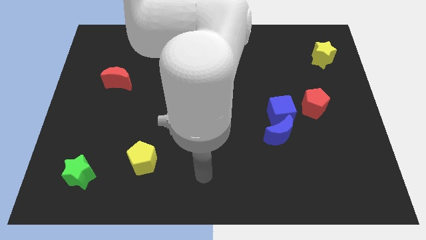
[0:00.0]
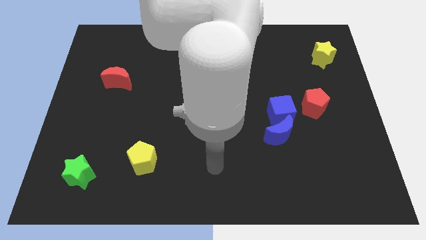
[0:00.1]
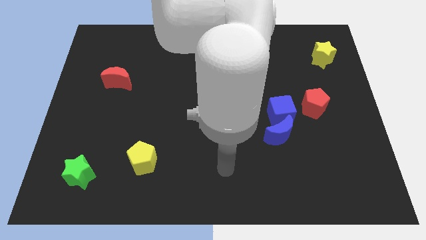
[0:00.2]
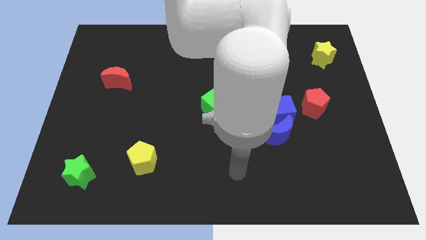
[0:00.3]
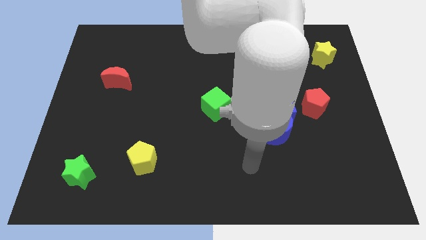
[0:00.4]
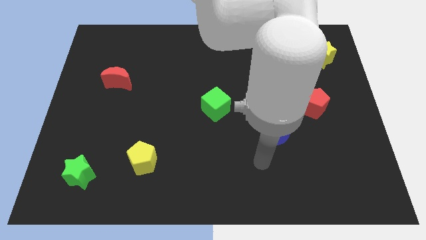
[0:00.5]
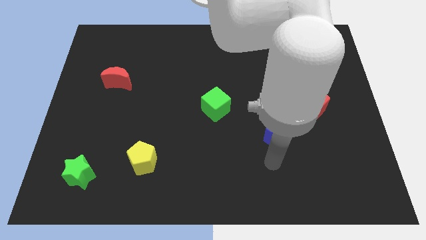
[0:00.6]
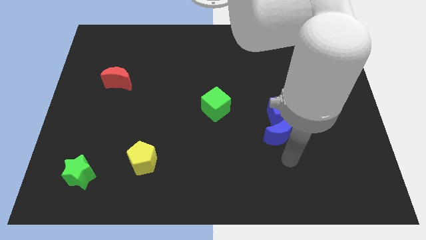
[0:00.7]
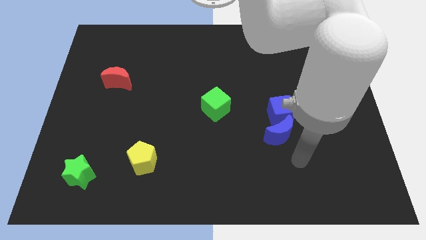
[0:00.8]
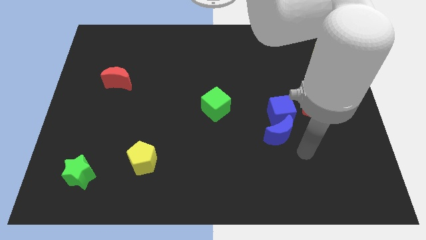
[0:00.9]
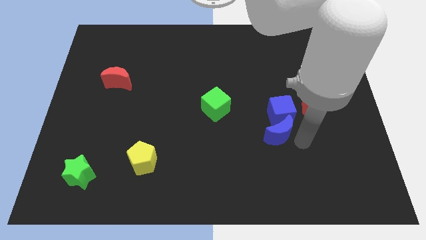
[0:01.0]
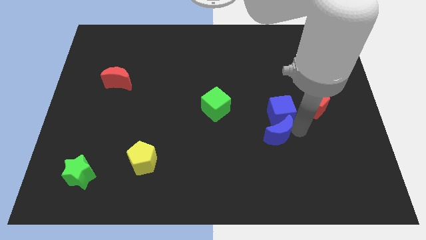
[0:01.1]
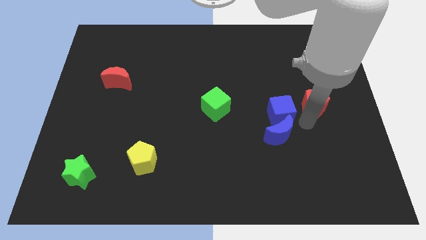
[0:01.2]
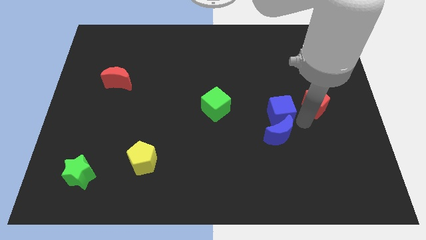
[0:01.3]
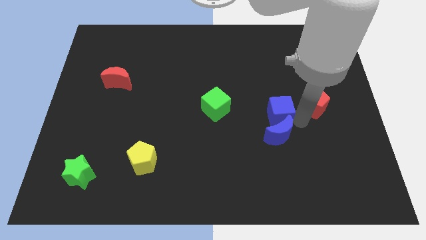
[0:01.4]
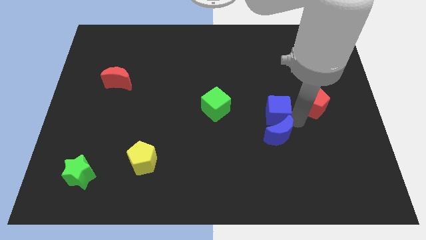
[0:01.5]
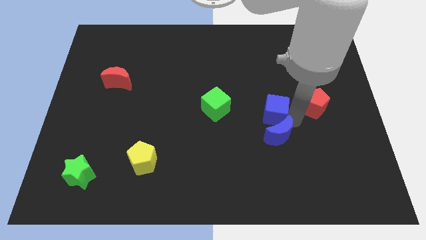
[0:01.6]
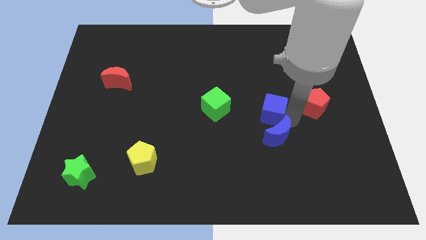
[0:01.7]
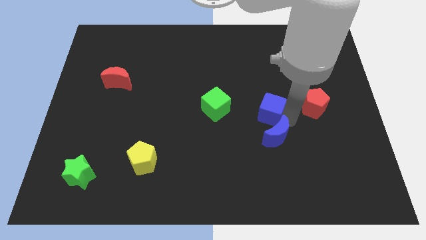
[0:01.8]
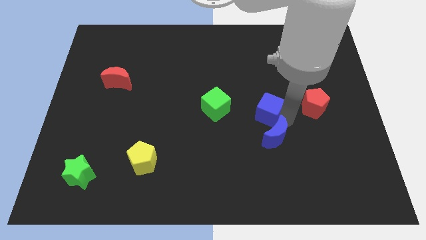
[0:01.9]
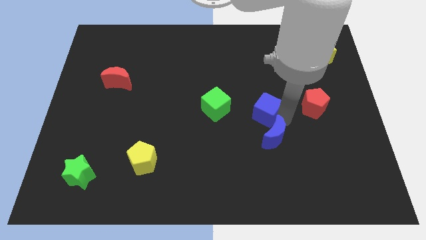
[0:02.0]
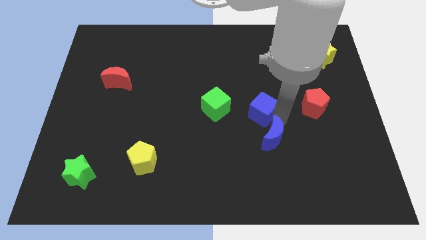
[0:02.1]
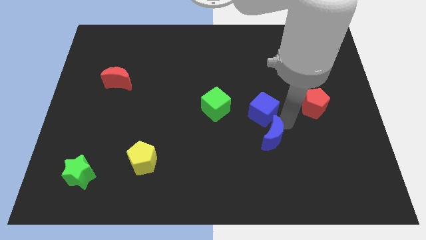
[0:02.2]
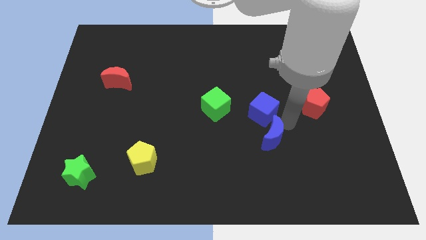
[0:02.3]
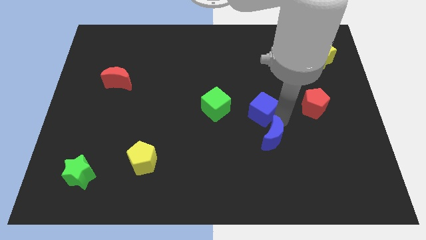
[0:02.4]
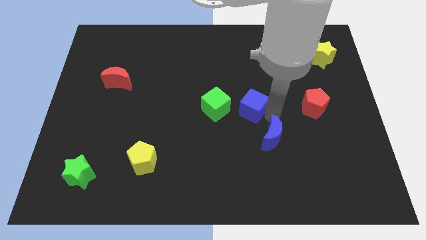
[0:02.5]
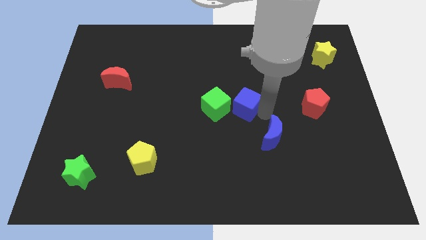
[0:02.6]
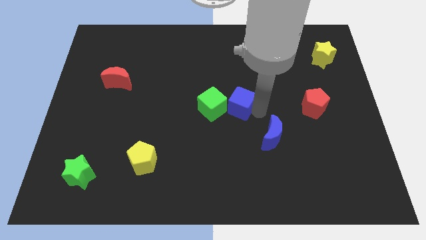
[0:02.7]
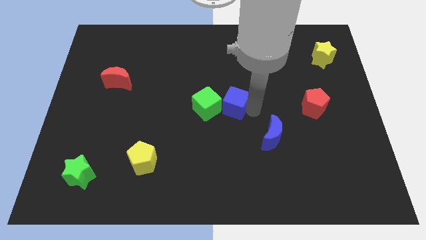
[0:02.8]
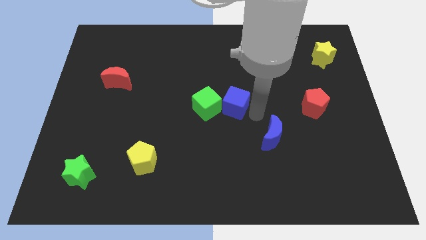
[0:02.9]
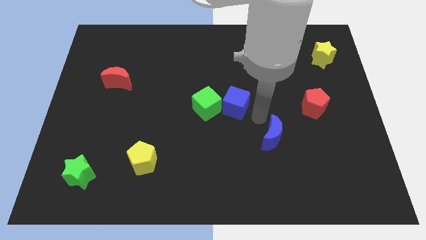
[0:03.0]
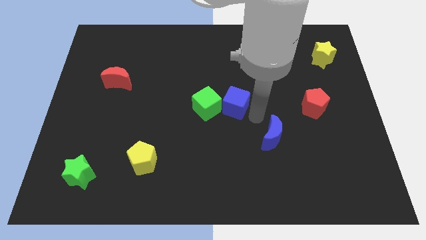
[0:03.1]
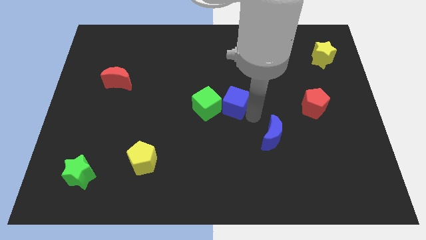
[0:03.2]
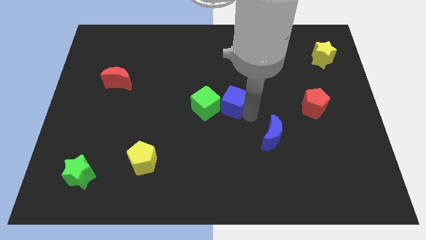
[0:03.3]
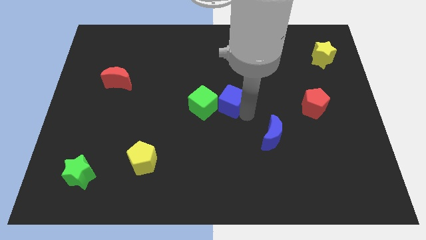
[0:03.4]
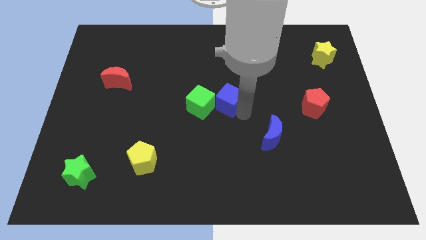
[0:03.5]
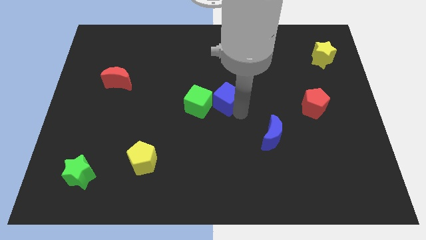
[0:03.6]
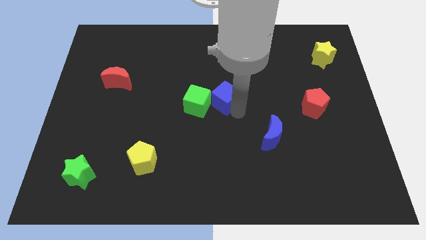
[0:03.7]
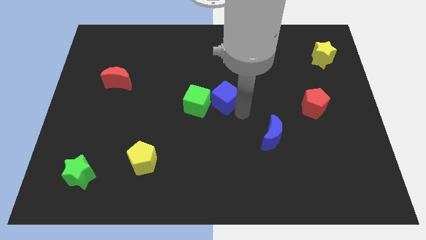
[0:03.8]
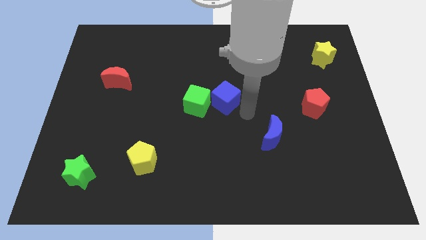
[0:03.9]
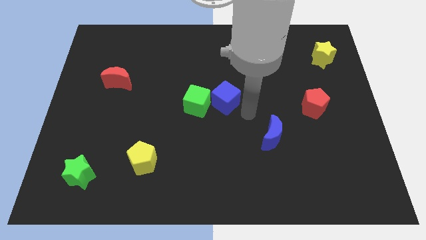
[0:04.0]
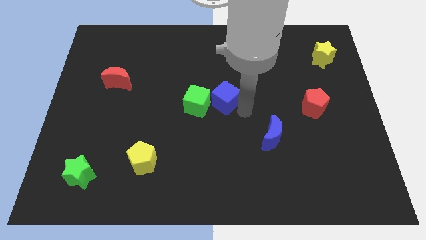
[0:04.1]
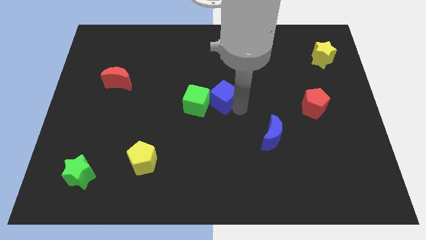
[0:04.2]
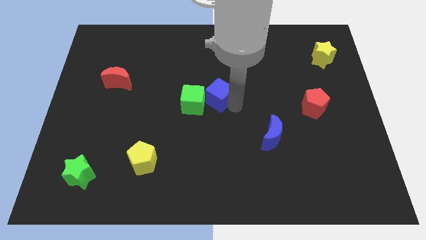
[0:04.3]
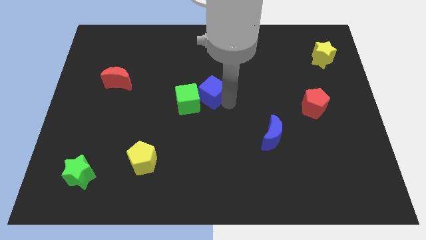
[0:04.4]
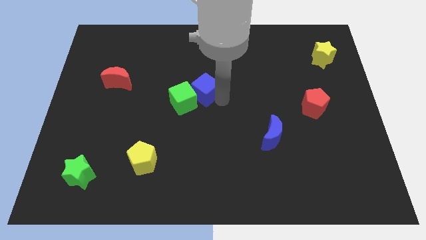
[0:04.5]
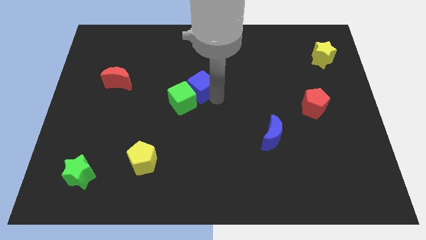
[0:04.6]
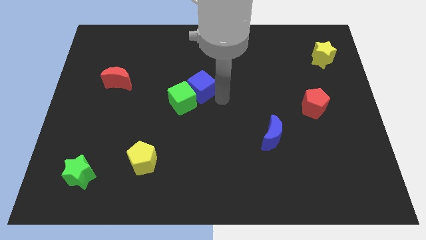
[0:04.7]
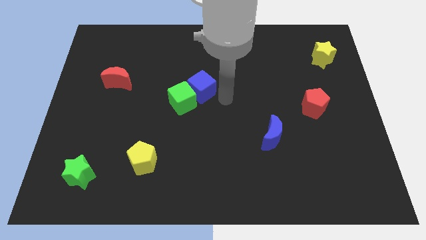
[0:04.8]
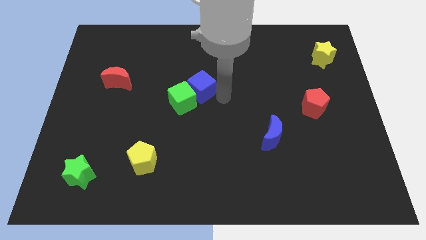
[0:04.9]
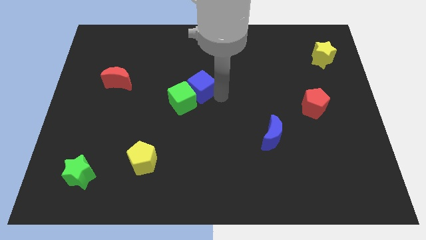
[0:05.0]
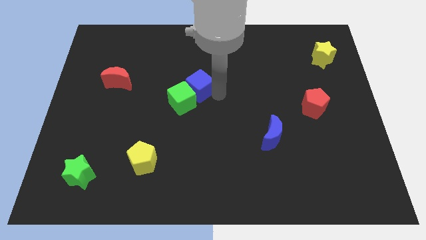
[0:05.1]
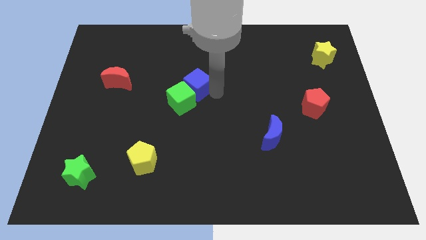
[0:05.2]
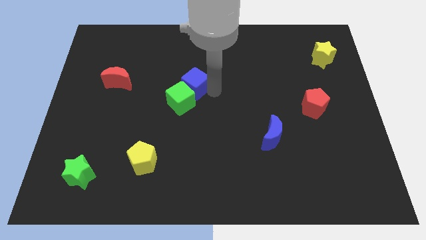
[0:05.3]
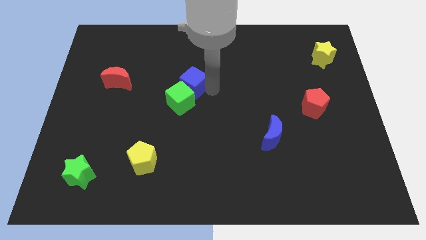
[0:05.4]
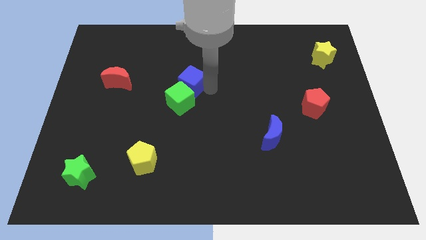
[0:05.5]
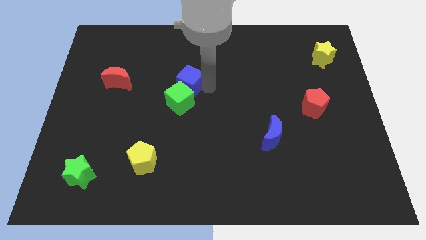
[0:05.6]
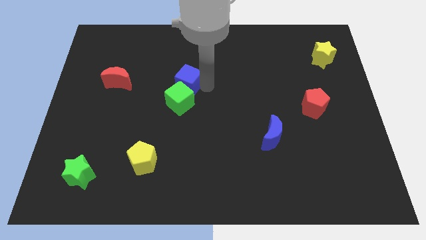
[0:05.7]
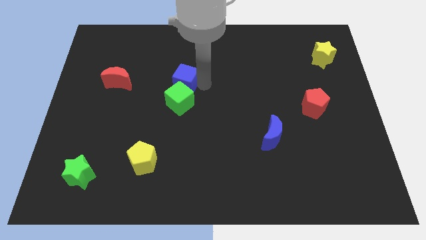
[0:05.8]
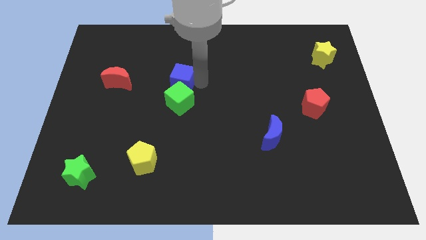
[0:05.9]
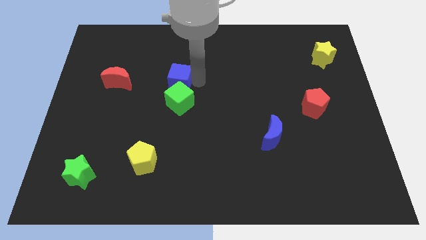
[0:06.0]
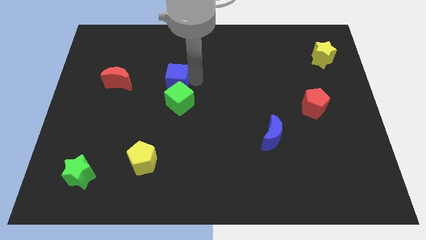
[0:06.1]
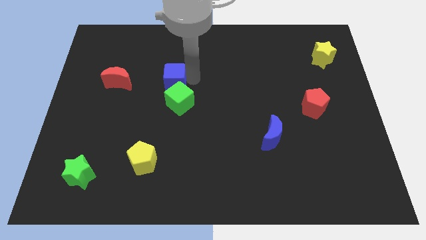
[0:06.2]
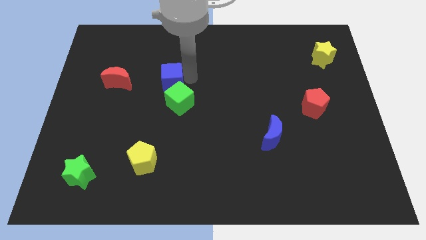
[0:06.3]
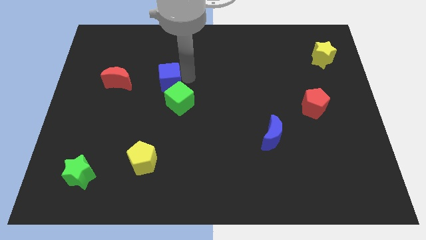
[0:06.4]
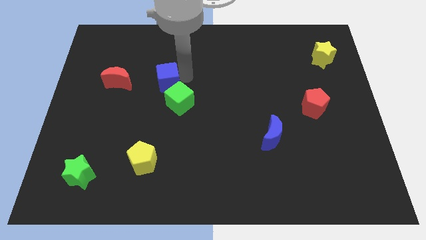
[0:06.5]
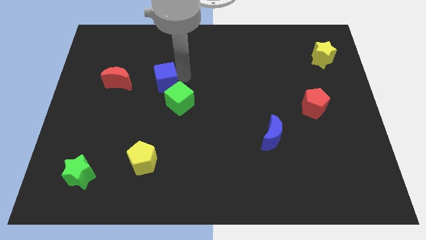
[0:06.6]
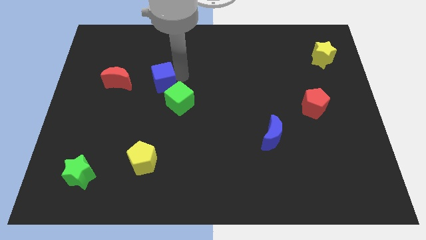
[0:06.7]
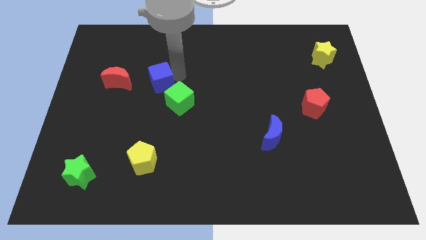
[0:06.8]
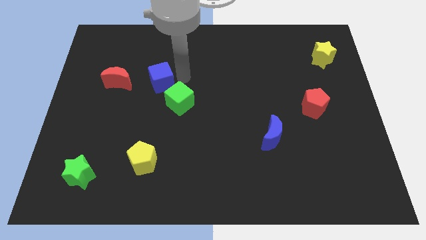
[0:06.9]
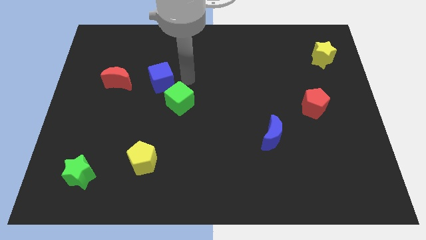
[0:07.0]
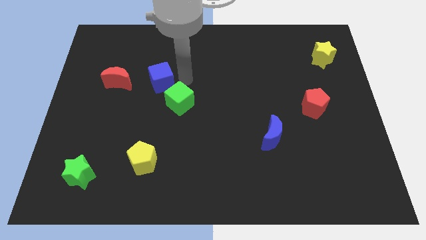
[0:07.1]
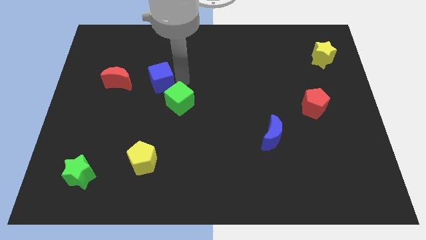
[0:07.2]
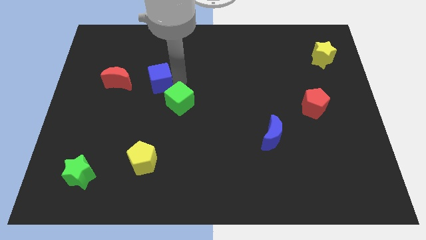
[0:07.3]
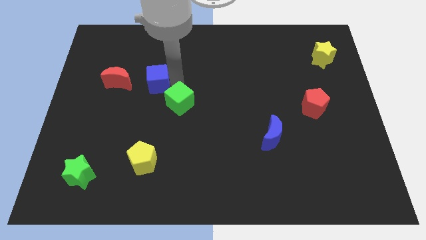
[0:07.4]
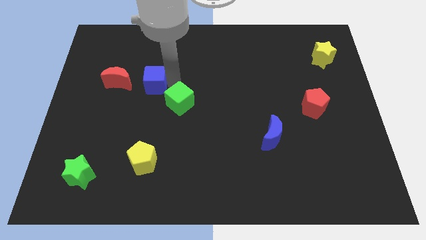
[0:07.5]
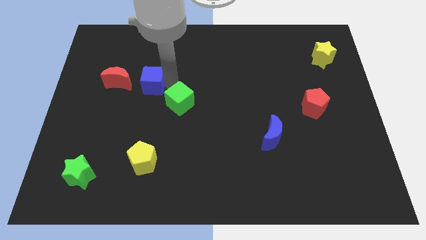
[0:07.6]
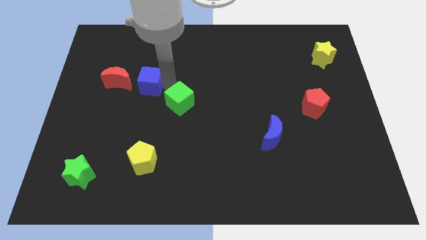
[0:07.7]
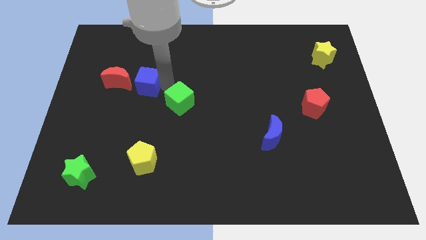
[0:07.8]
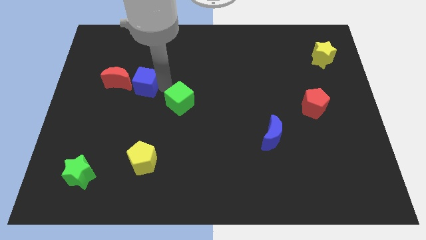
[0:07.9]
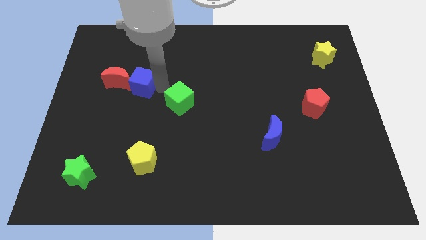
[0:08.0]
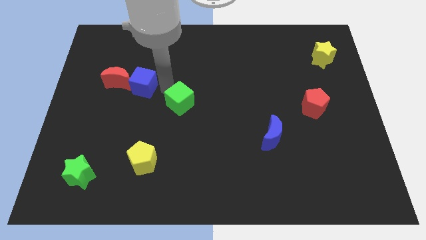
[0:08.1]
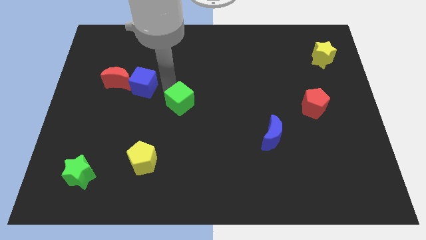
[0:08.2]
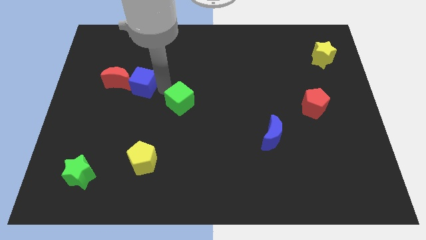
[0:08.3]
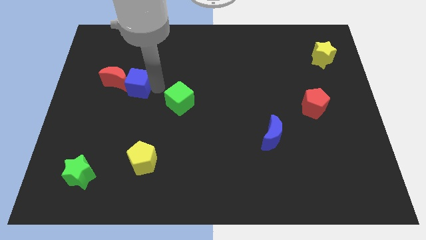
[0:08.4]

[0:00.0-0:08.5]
push the blue cube to the red moon
